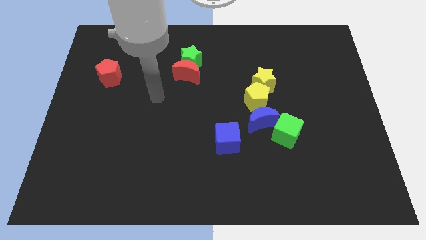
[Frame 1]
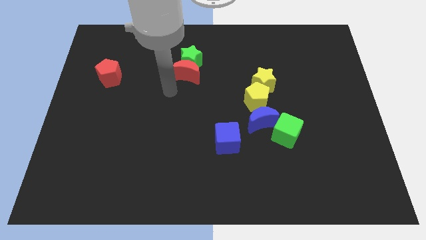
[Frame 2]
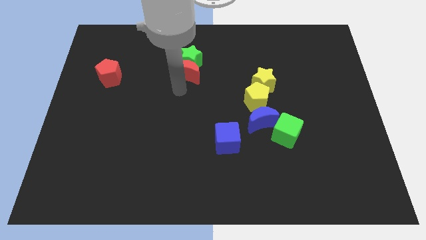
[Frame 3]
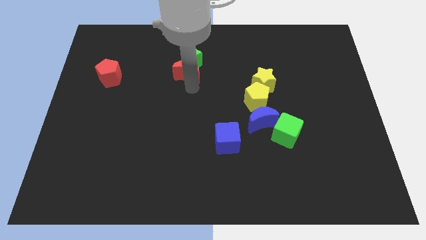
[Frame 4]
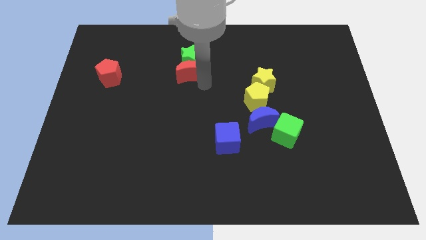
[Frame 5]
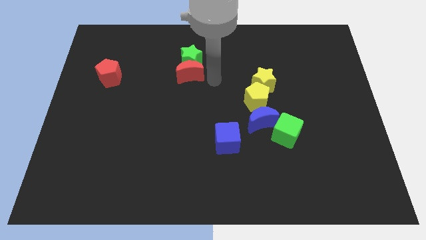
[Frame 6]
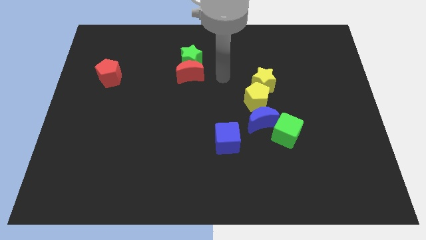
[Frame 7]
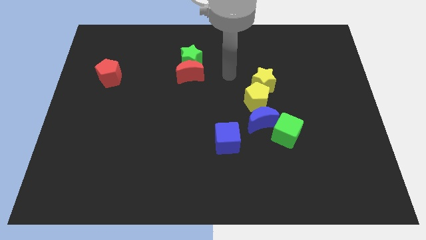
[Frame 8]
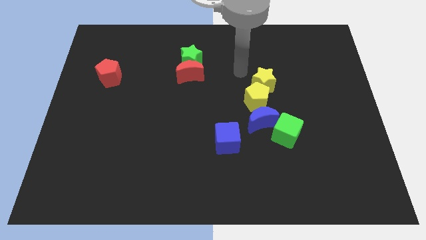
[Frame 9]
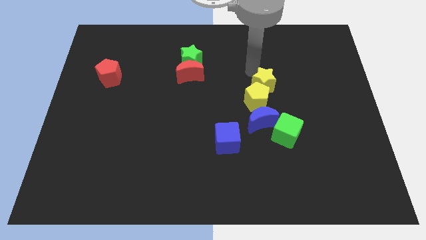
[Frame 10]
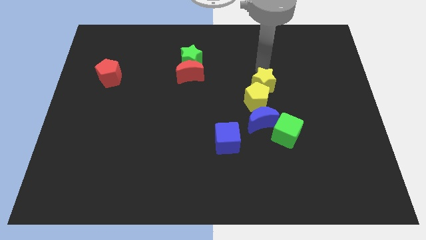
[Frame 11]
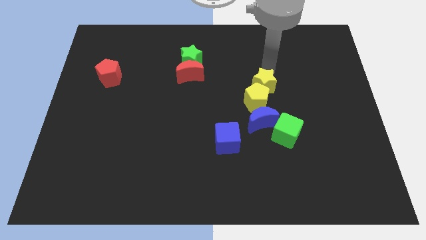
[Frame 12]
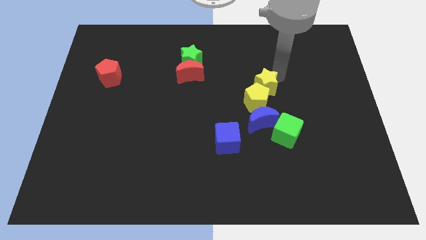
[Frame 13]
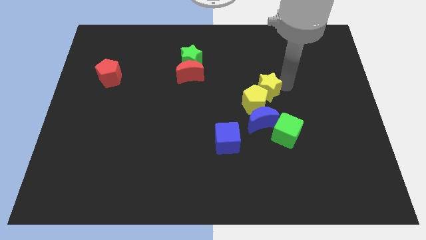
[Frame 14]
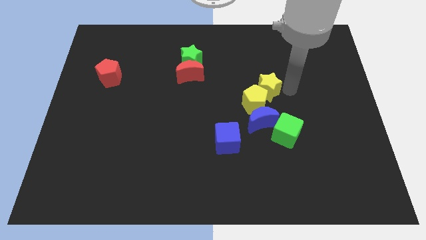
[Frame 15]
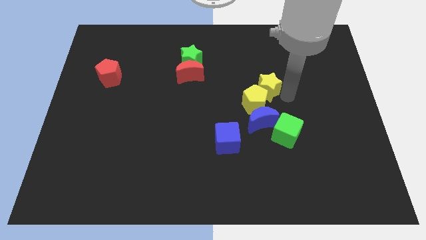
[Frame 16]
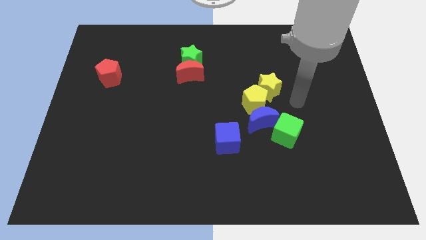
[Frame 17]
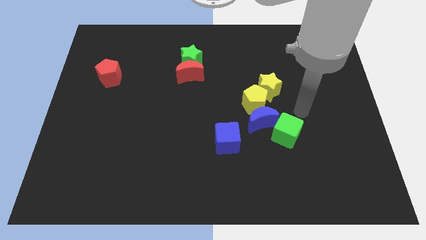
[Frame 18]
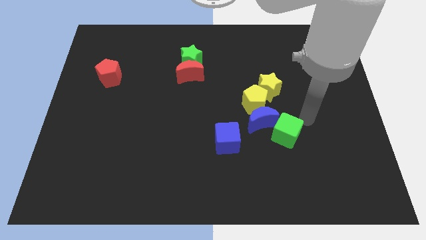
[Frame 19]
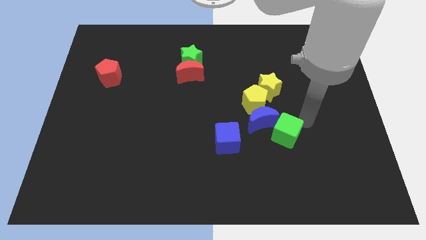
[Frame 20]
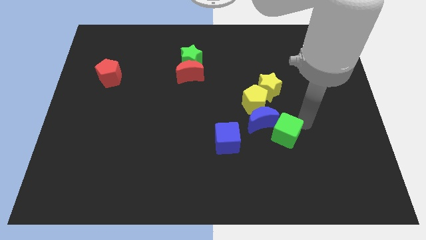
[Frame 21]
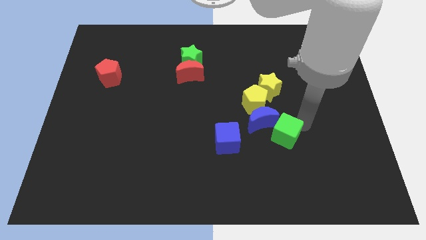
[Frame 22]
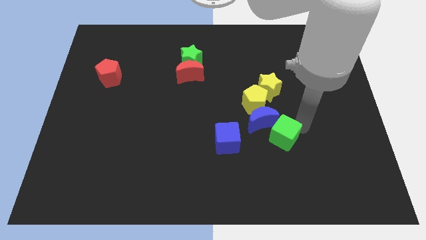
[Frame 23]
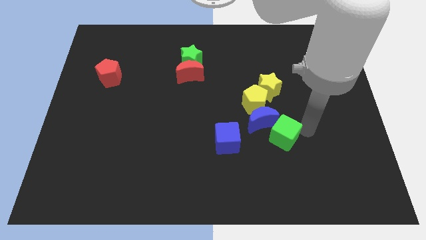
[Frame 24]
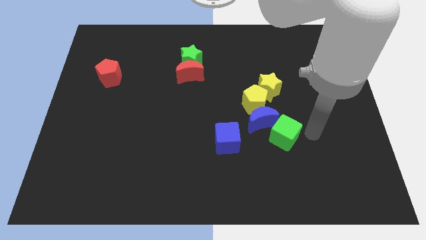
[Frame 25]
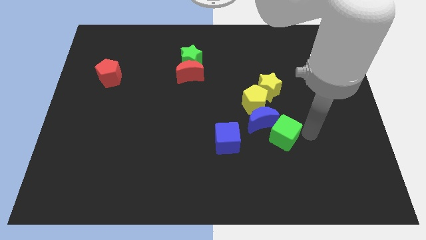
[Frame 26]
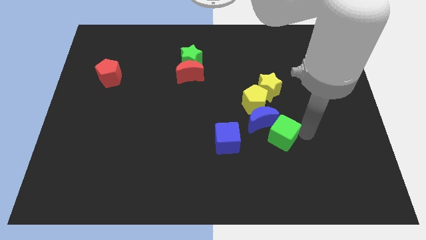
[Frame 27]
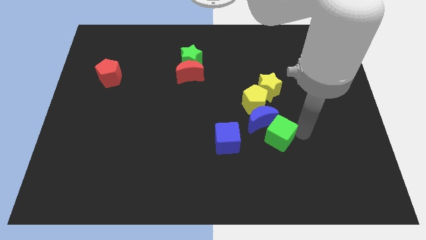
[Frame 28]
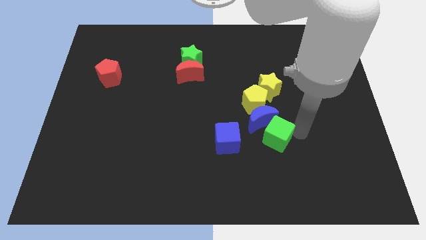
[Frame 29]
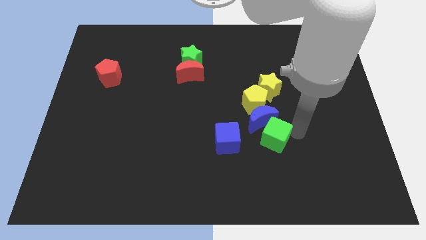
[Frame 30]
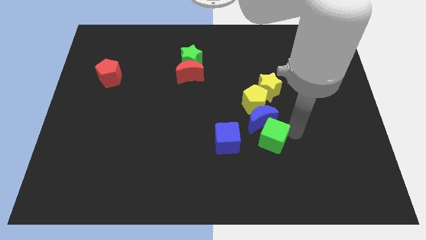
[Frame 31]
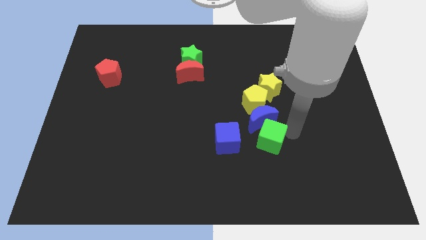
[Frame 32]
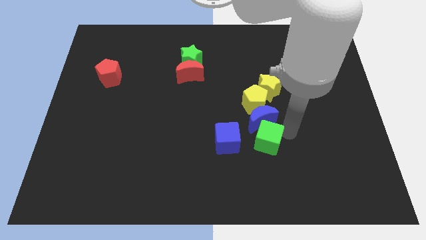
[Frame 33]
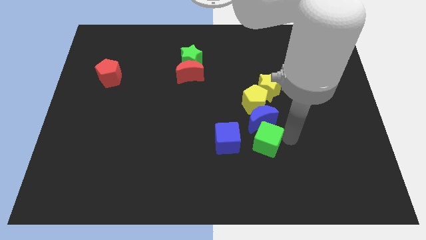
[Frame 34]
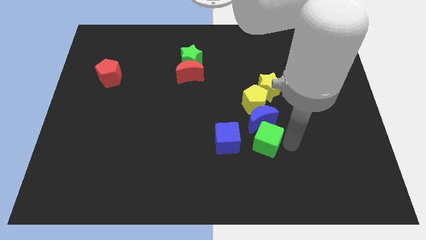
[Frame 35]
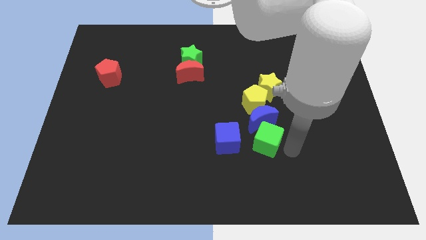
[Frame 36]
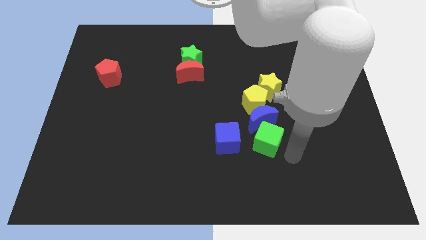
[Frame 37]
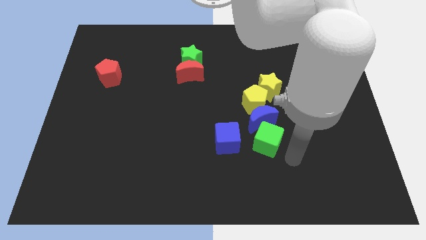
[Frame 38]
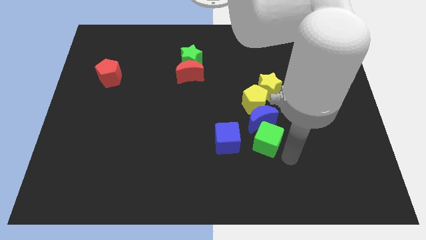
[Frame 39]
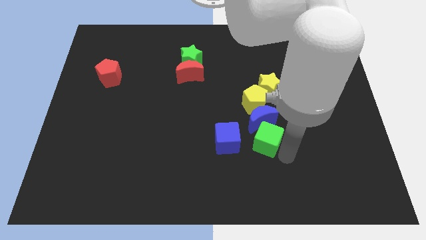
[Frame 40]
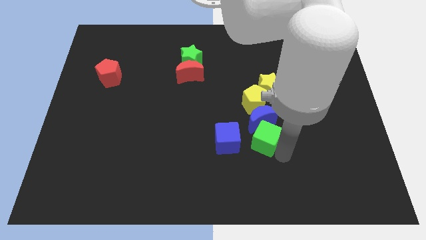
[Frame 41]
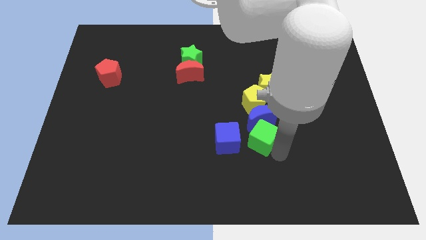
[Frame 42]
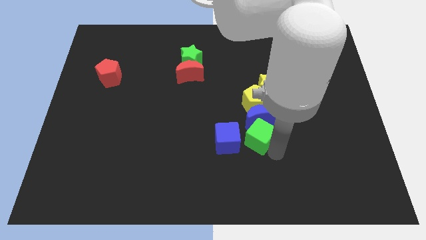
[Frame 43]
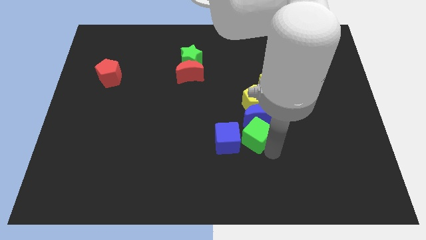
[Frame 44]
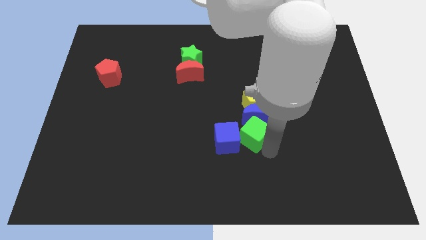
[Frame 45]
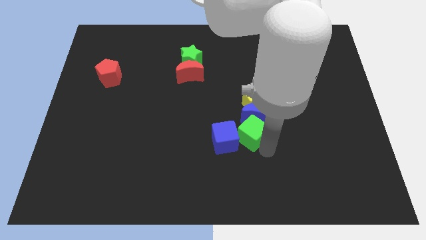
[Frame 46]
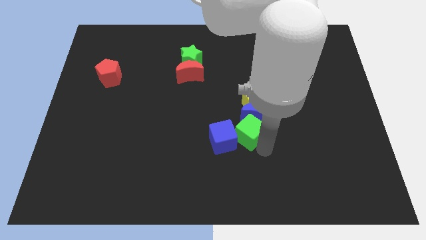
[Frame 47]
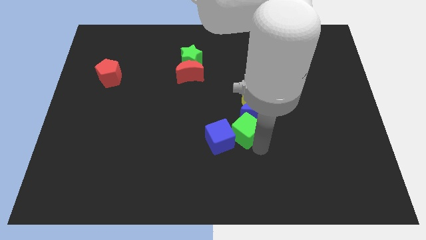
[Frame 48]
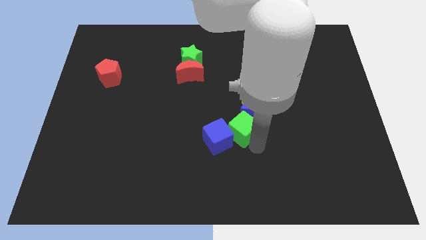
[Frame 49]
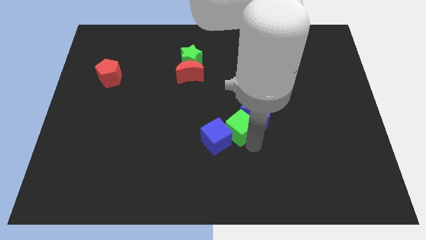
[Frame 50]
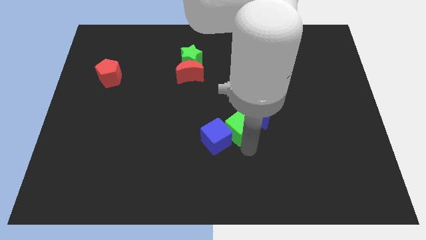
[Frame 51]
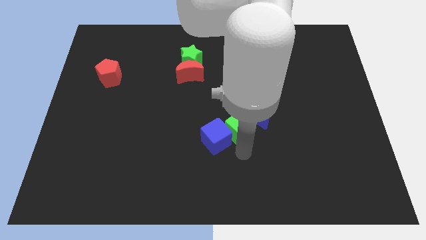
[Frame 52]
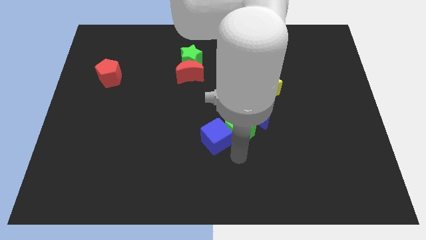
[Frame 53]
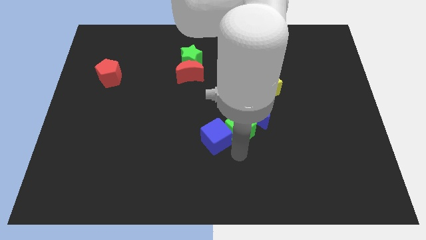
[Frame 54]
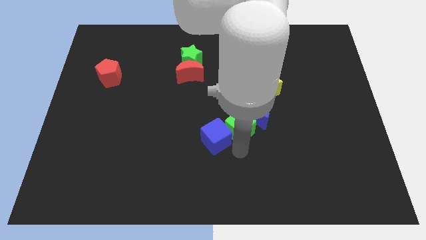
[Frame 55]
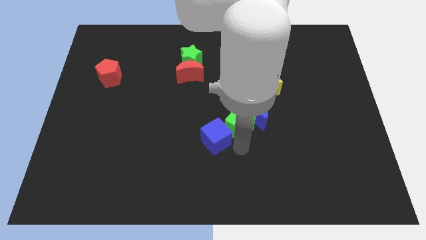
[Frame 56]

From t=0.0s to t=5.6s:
move the green cube upwards and left diagonally somewhat

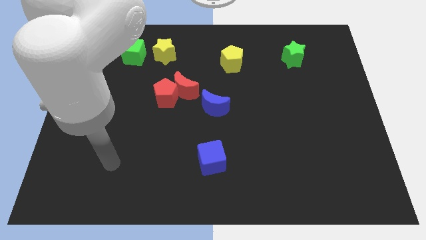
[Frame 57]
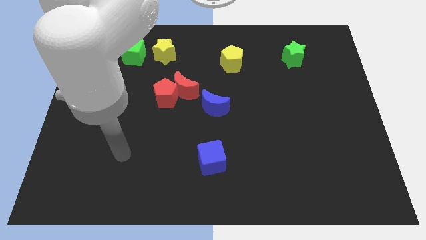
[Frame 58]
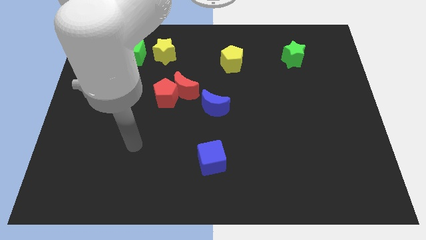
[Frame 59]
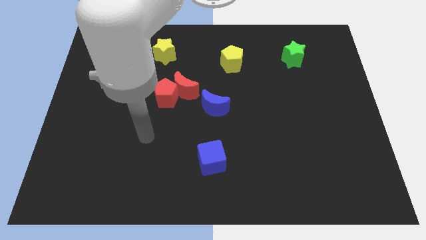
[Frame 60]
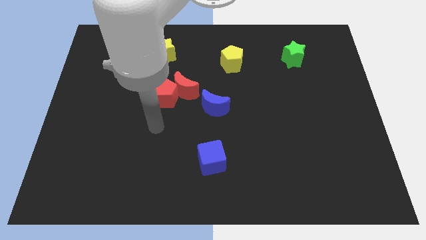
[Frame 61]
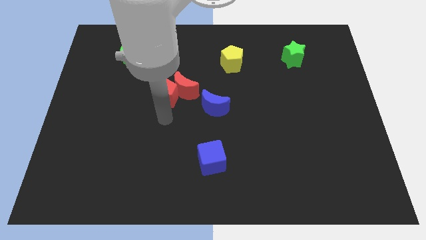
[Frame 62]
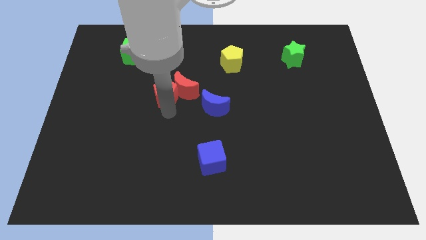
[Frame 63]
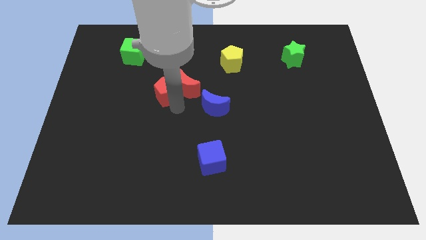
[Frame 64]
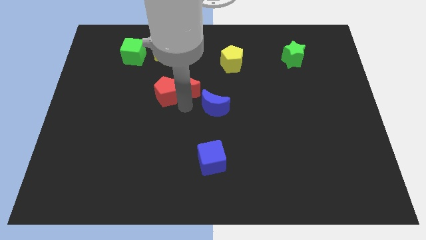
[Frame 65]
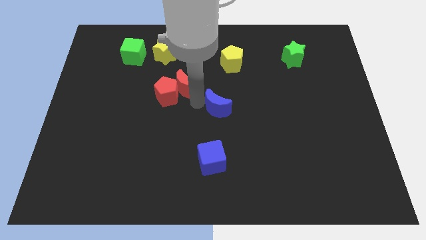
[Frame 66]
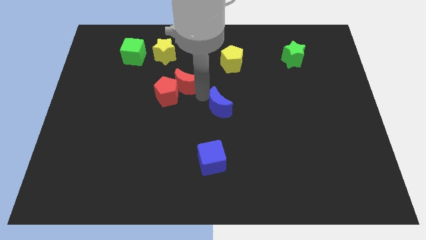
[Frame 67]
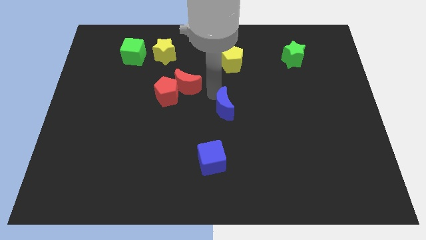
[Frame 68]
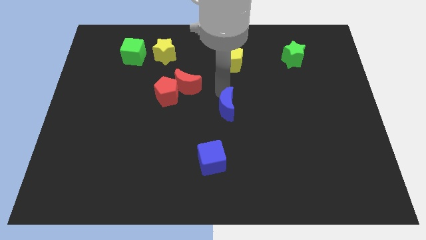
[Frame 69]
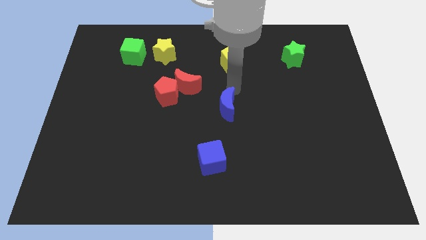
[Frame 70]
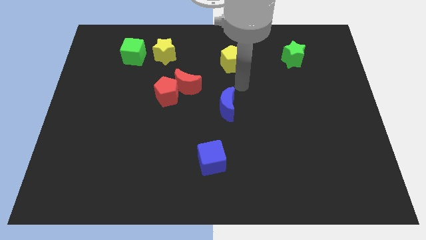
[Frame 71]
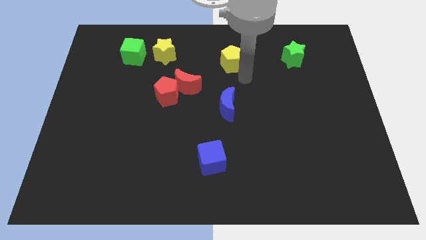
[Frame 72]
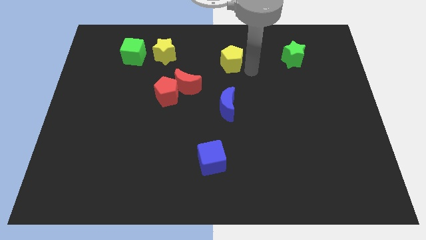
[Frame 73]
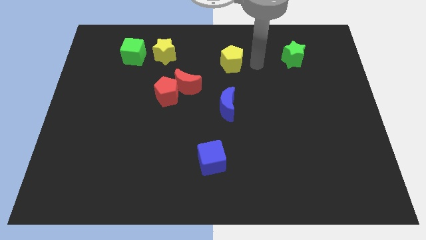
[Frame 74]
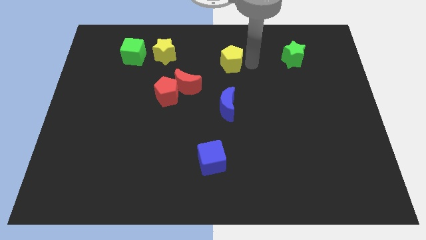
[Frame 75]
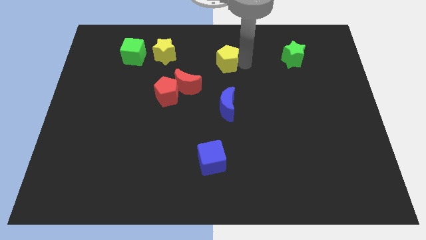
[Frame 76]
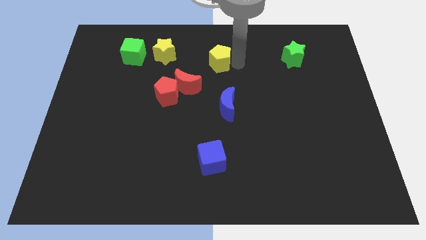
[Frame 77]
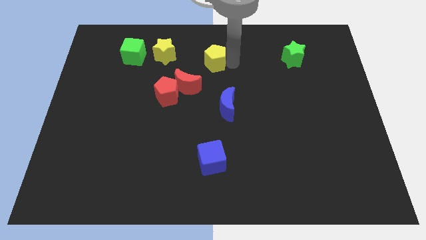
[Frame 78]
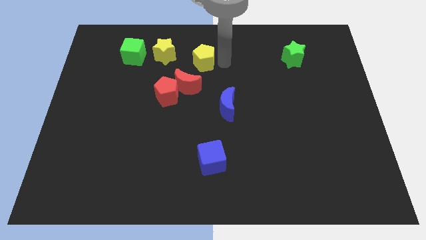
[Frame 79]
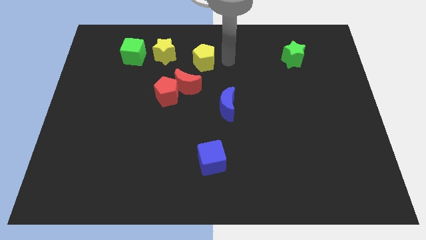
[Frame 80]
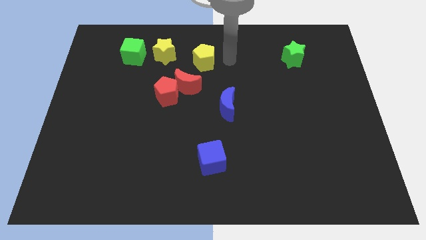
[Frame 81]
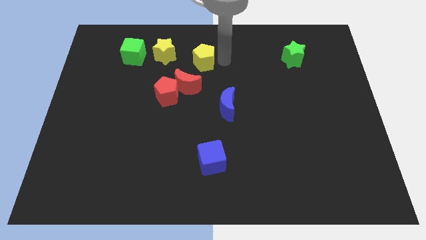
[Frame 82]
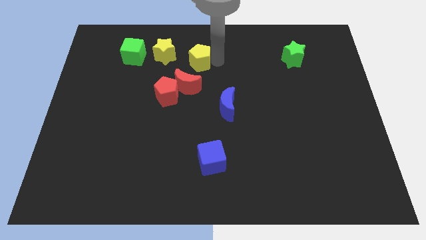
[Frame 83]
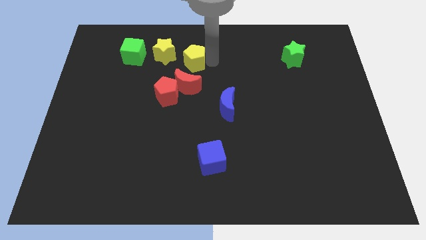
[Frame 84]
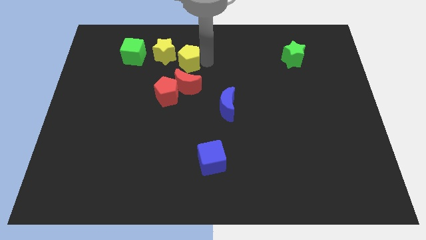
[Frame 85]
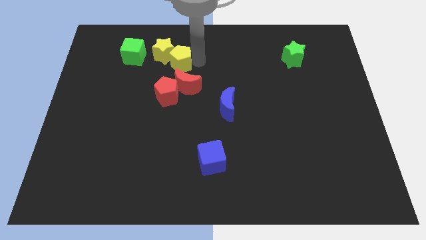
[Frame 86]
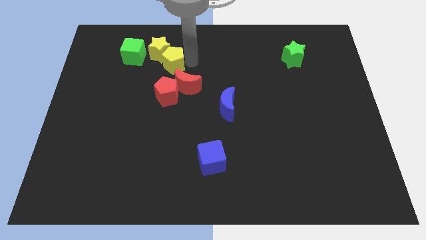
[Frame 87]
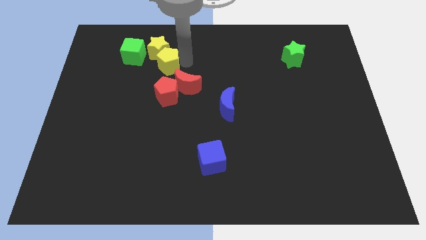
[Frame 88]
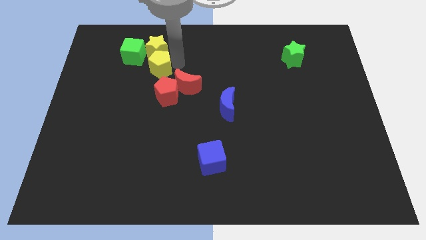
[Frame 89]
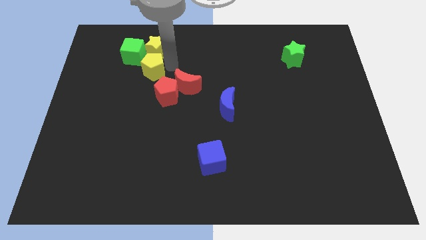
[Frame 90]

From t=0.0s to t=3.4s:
slide the yellow pentagon left
